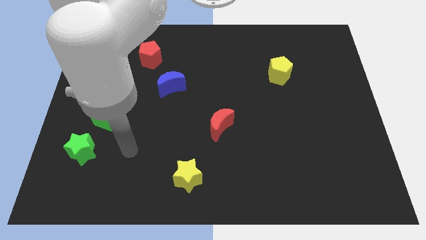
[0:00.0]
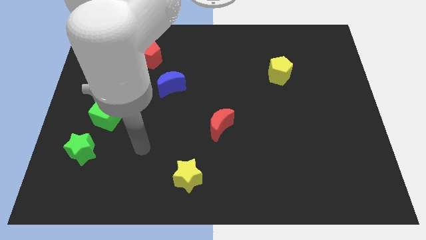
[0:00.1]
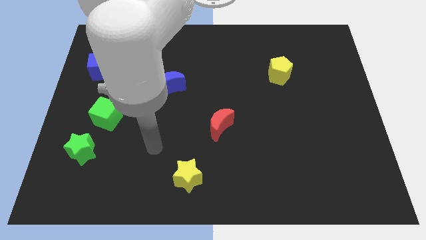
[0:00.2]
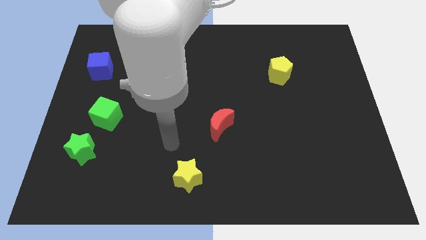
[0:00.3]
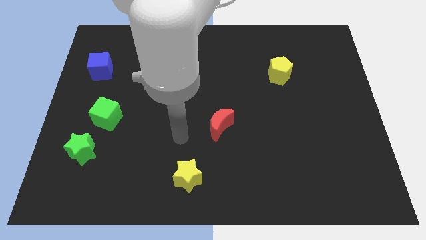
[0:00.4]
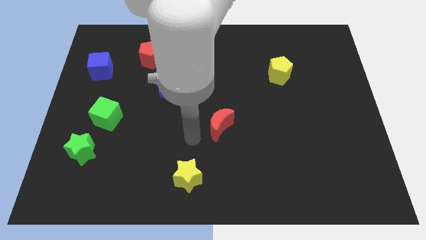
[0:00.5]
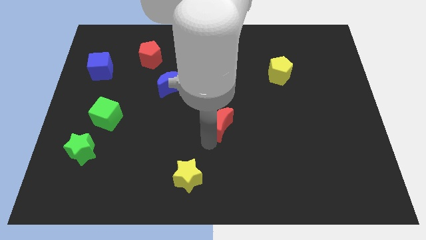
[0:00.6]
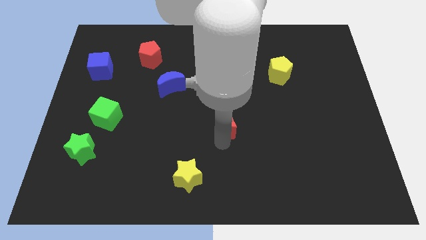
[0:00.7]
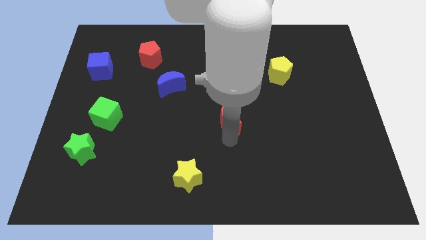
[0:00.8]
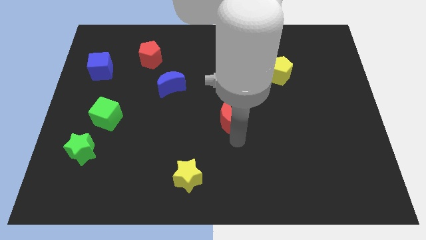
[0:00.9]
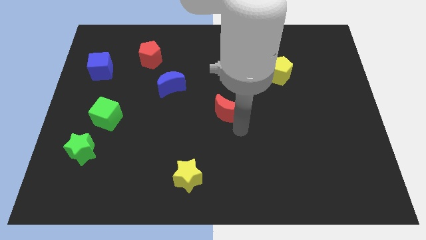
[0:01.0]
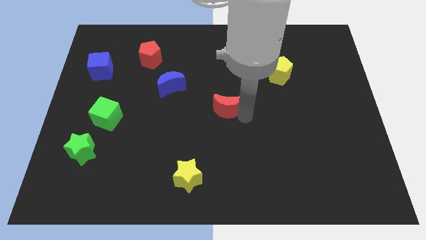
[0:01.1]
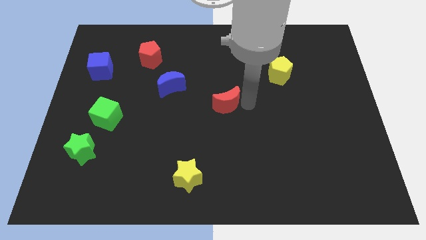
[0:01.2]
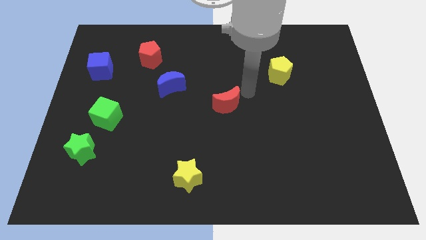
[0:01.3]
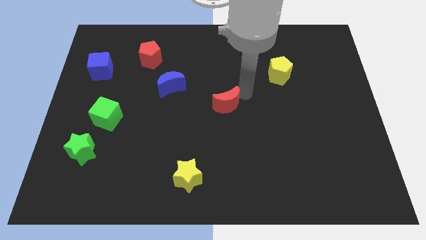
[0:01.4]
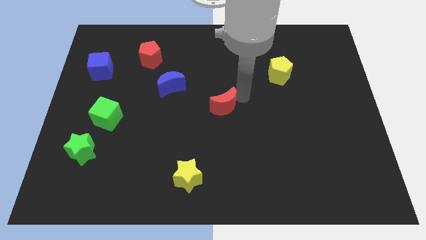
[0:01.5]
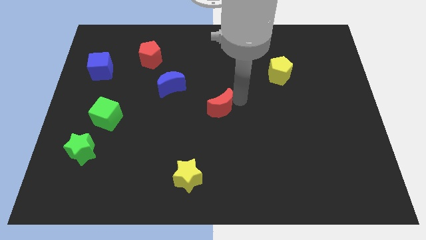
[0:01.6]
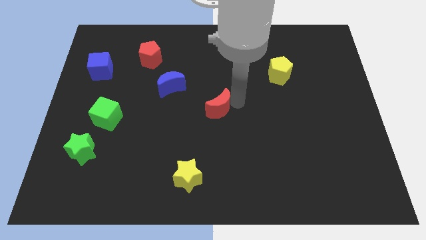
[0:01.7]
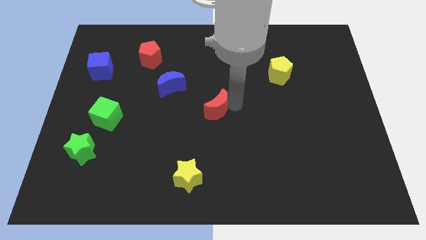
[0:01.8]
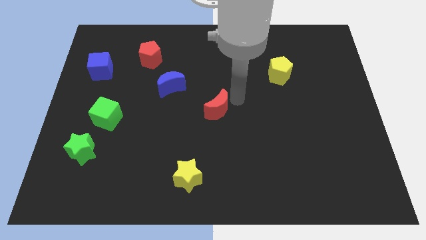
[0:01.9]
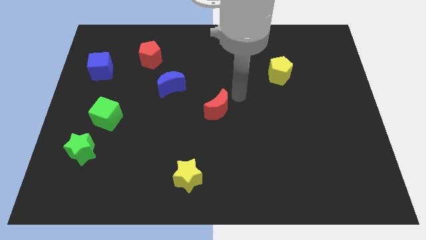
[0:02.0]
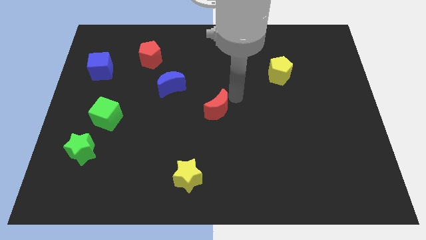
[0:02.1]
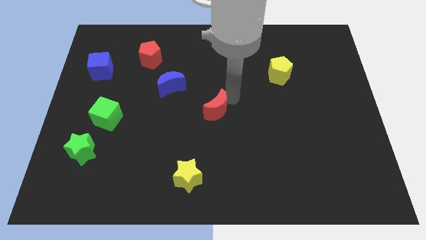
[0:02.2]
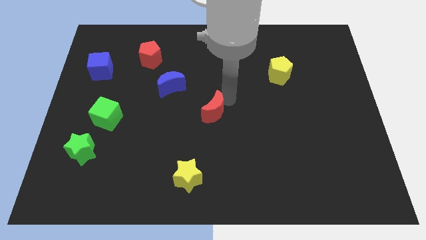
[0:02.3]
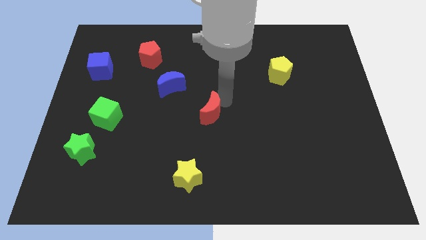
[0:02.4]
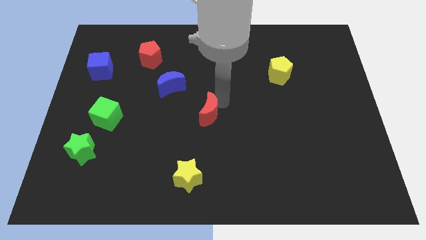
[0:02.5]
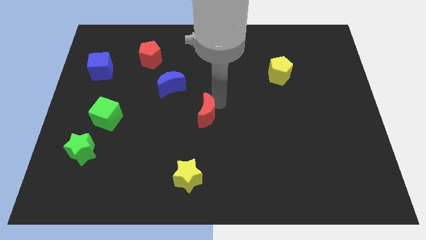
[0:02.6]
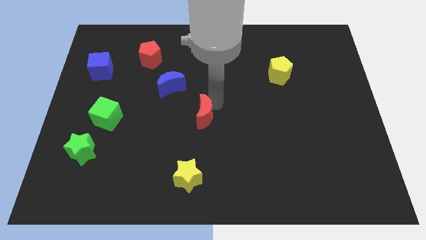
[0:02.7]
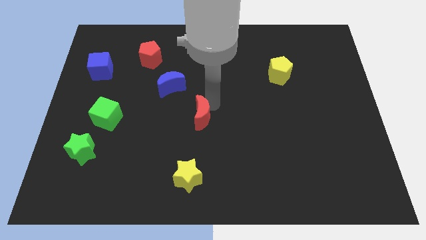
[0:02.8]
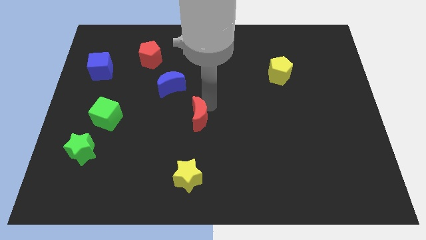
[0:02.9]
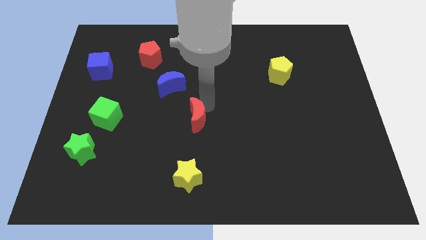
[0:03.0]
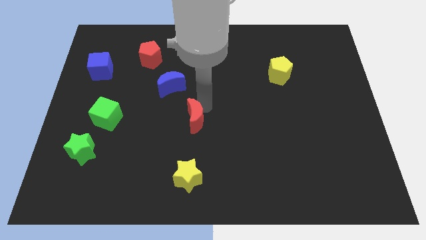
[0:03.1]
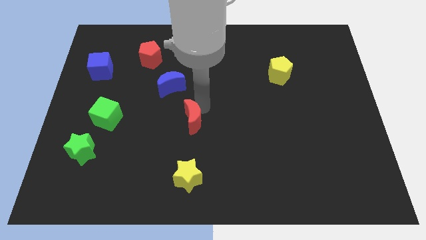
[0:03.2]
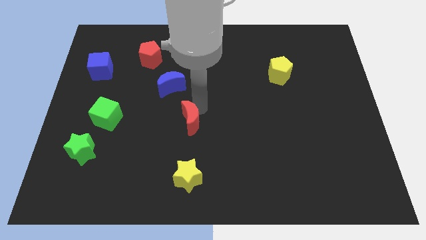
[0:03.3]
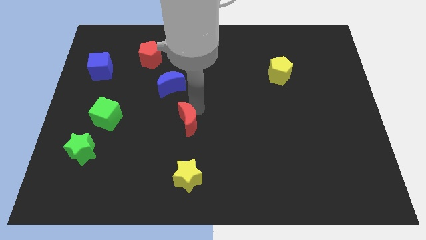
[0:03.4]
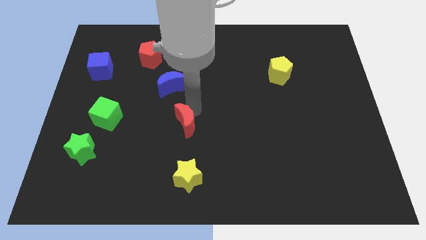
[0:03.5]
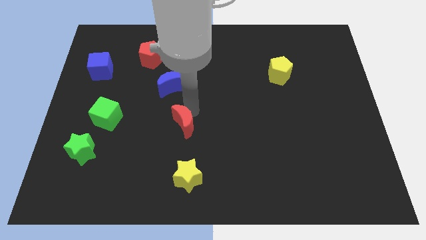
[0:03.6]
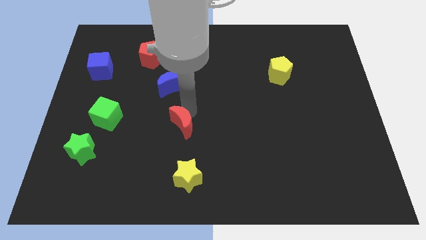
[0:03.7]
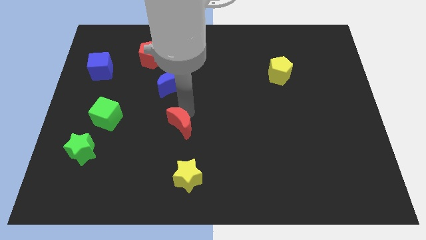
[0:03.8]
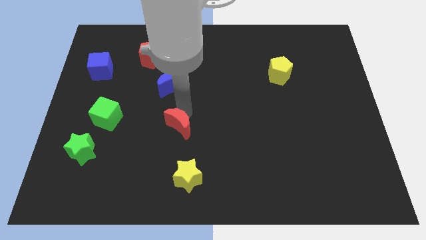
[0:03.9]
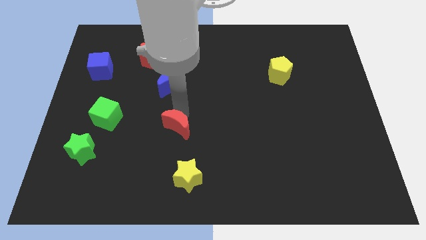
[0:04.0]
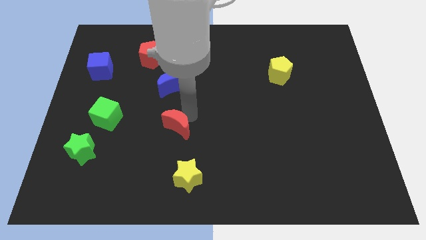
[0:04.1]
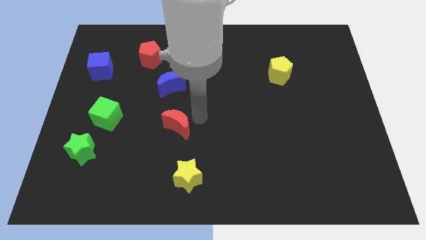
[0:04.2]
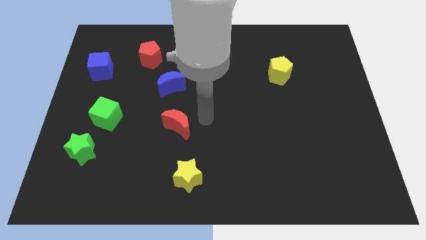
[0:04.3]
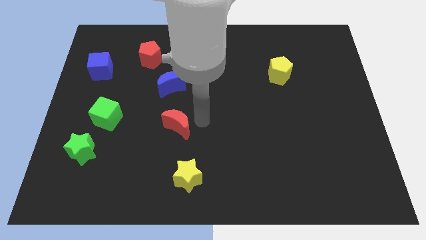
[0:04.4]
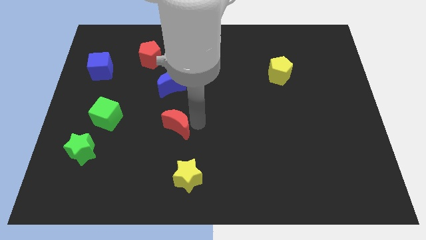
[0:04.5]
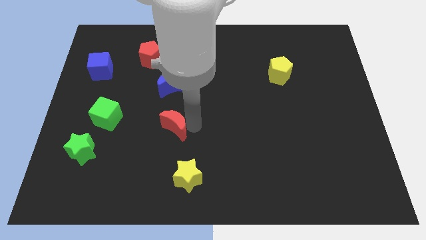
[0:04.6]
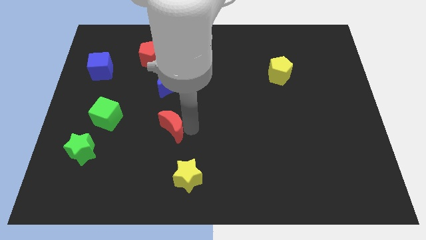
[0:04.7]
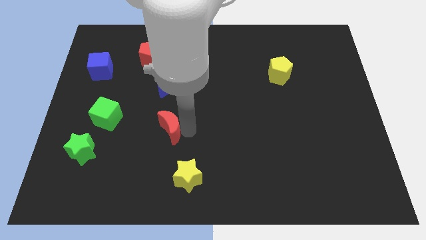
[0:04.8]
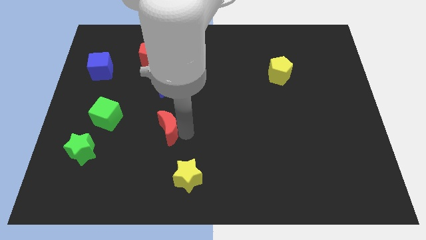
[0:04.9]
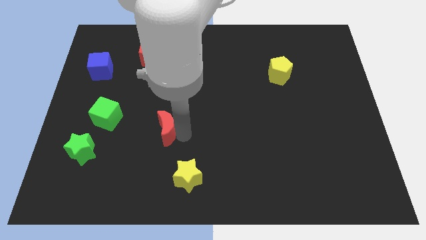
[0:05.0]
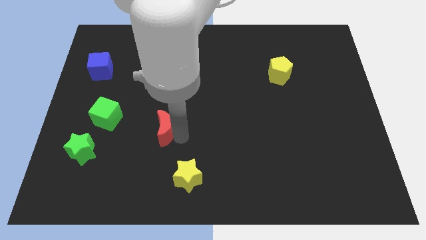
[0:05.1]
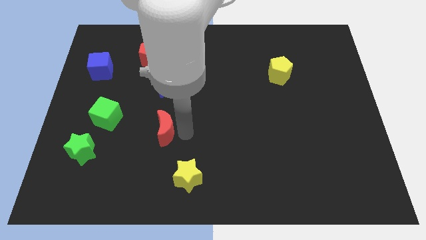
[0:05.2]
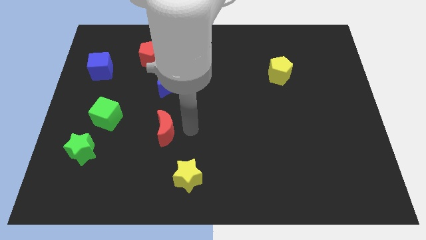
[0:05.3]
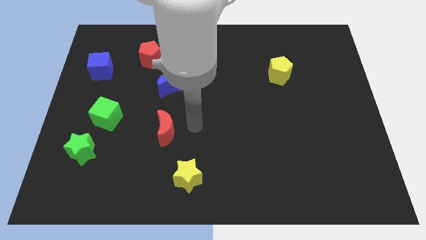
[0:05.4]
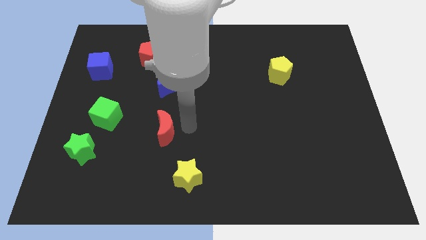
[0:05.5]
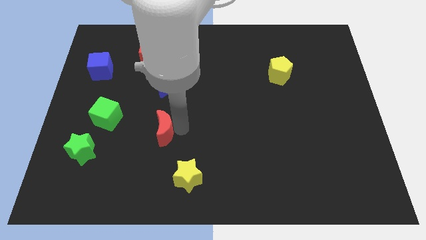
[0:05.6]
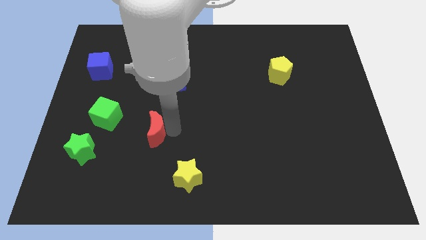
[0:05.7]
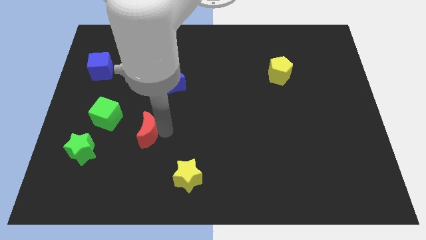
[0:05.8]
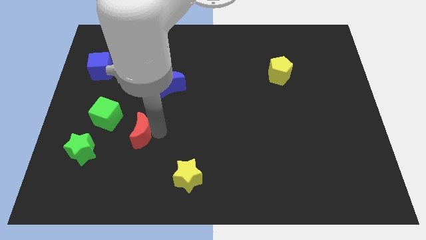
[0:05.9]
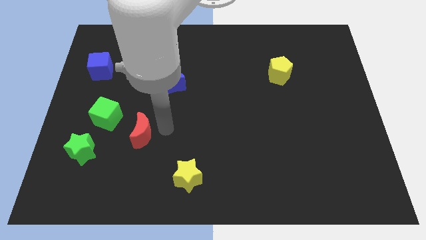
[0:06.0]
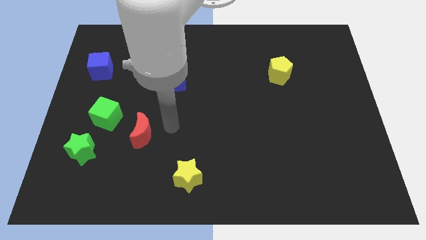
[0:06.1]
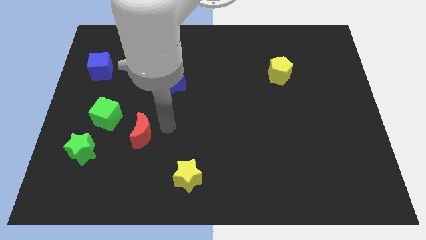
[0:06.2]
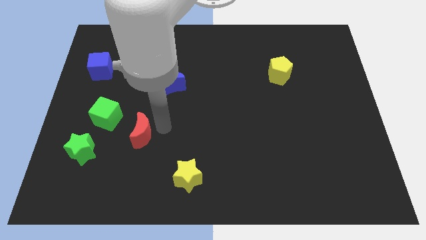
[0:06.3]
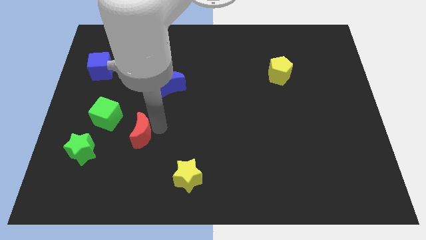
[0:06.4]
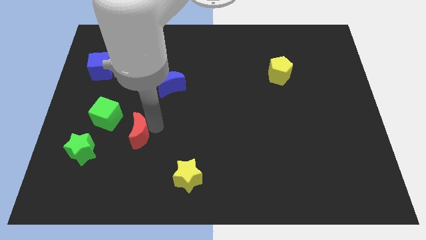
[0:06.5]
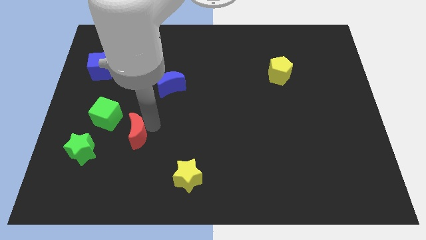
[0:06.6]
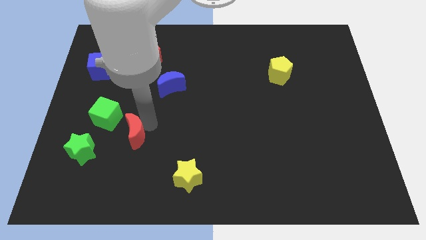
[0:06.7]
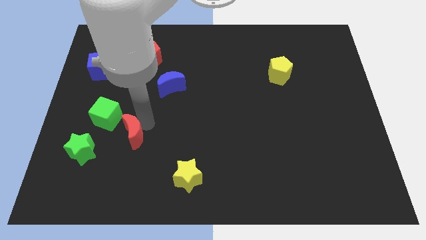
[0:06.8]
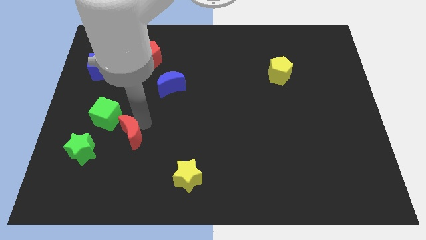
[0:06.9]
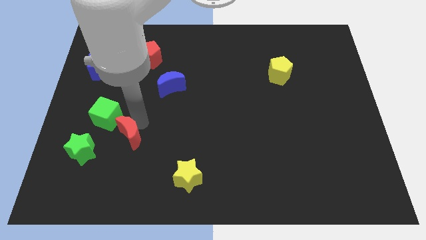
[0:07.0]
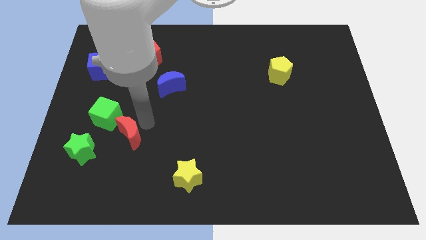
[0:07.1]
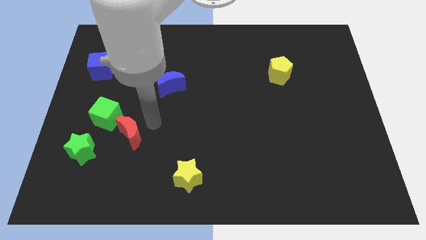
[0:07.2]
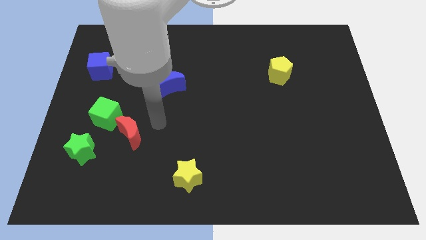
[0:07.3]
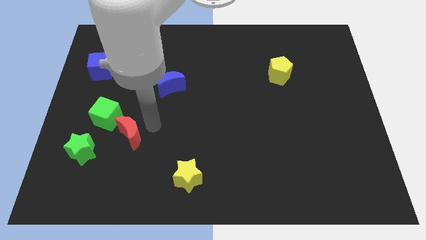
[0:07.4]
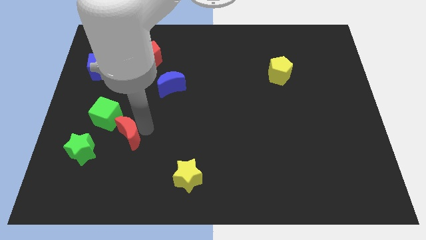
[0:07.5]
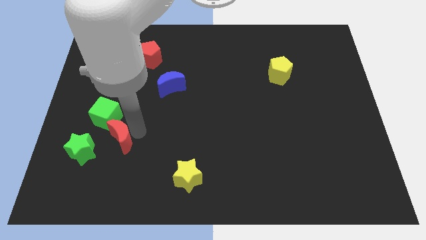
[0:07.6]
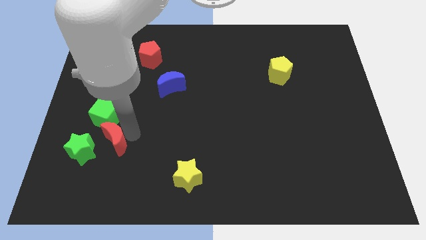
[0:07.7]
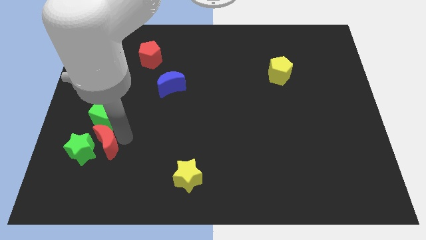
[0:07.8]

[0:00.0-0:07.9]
slide the red moon next to the green star
